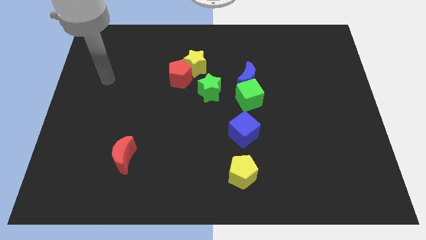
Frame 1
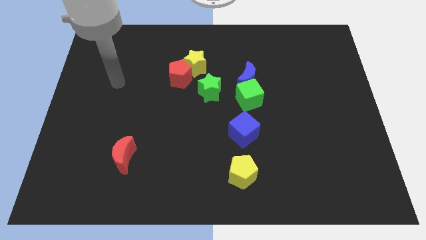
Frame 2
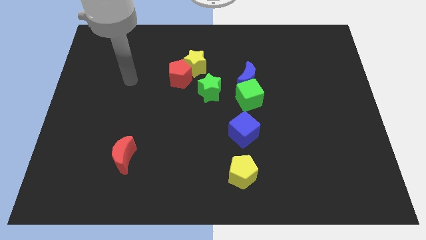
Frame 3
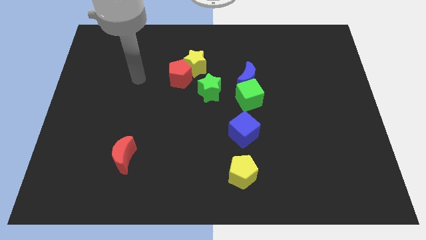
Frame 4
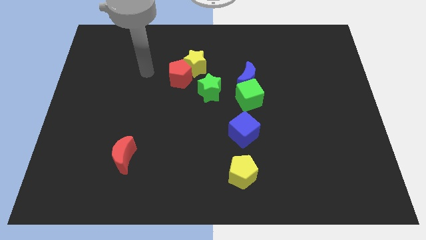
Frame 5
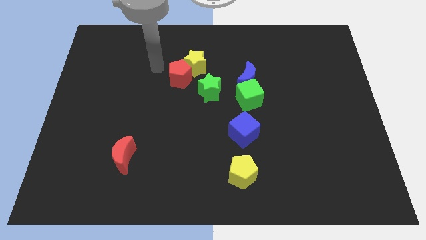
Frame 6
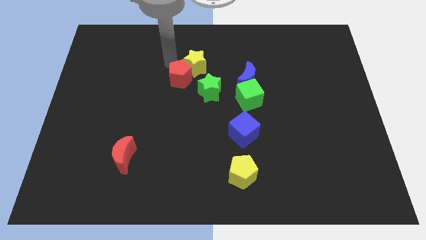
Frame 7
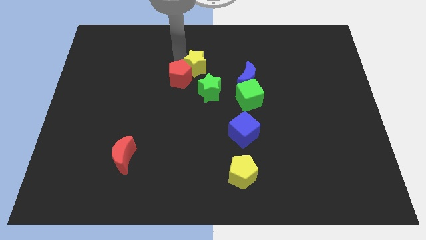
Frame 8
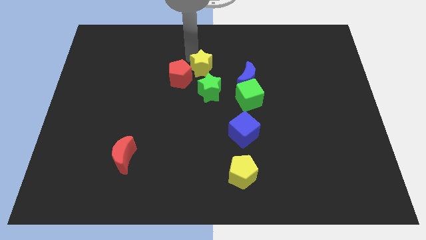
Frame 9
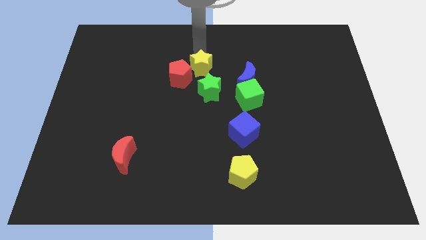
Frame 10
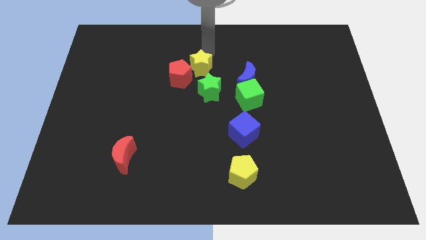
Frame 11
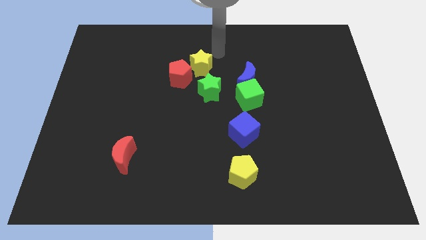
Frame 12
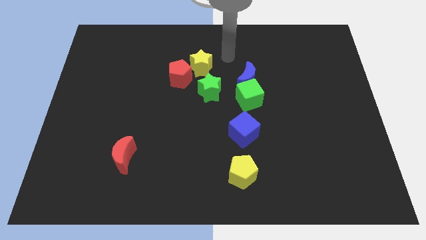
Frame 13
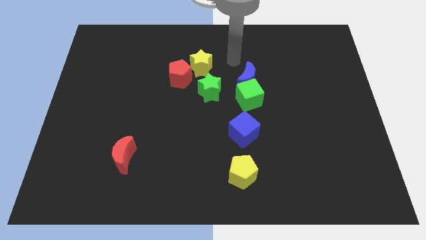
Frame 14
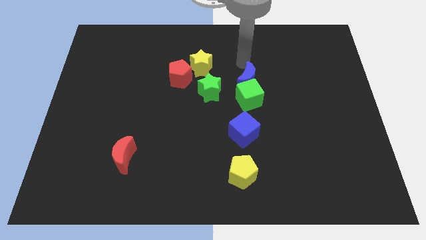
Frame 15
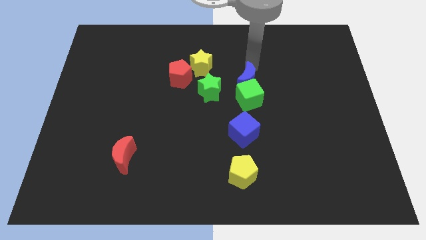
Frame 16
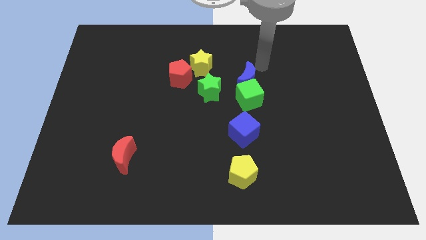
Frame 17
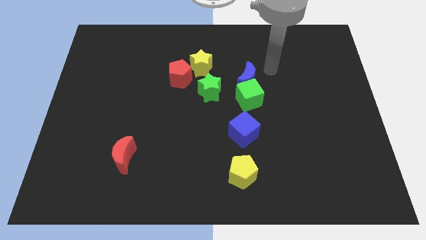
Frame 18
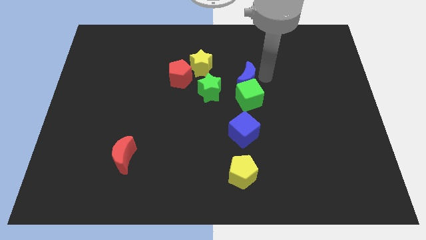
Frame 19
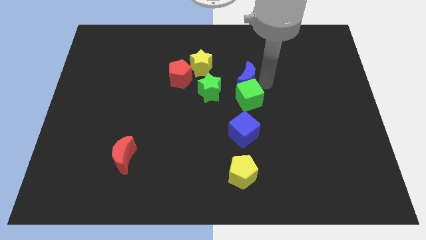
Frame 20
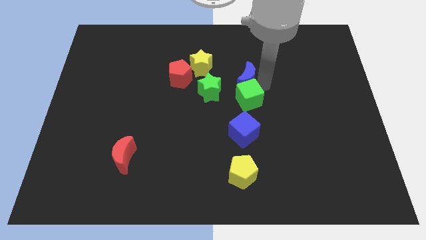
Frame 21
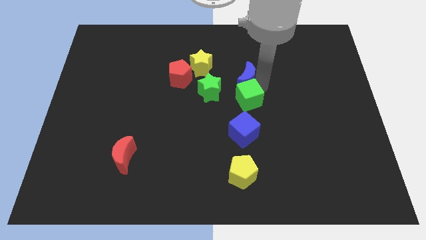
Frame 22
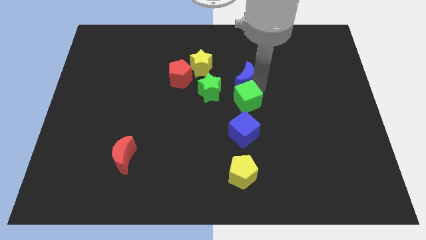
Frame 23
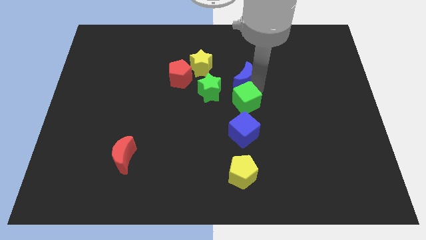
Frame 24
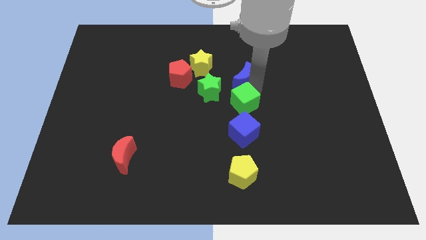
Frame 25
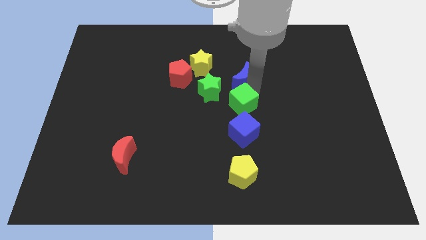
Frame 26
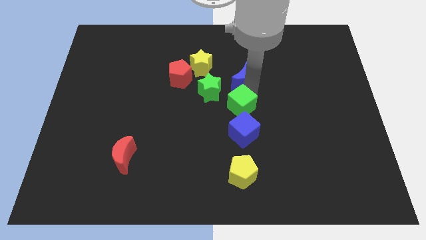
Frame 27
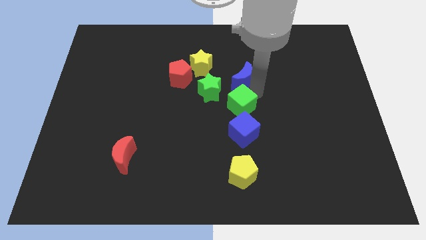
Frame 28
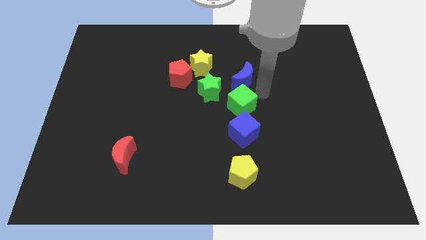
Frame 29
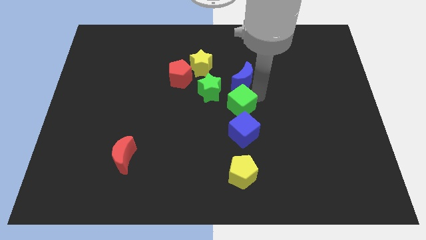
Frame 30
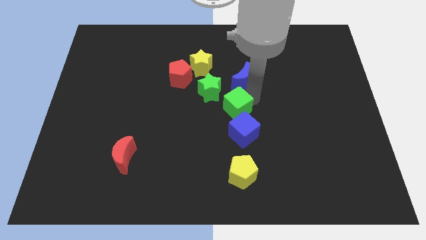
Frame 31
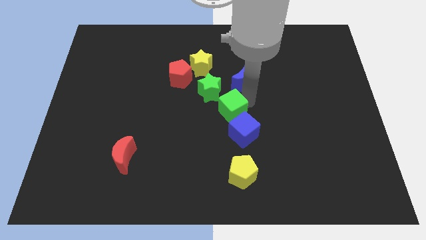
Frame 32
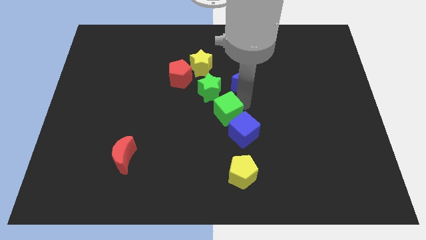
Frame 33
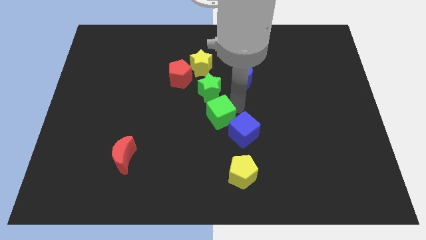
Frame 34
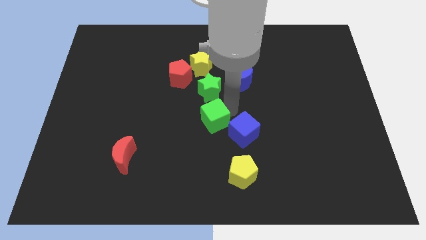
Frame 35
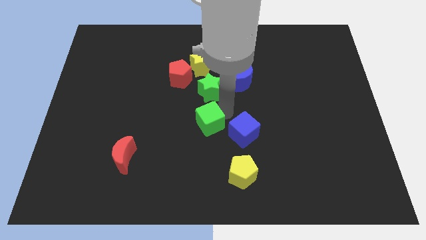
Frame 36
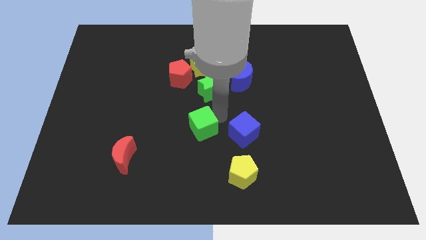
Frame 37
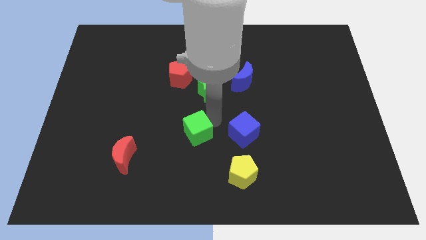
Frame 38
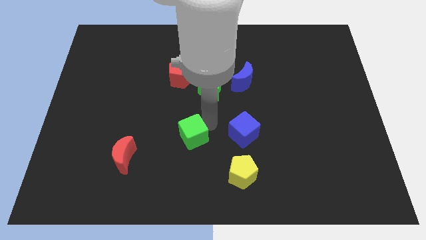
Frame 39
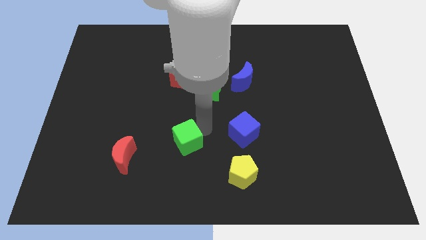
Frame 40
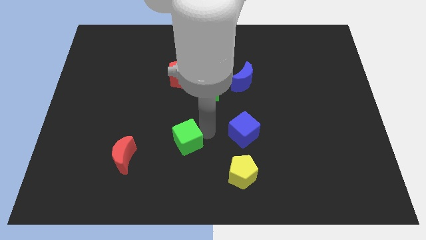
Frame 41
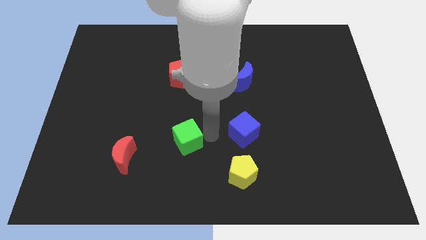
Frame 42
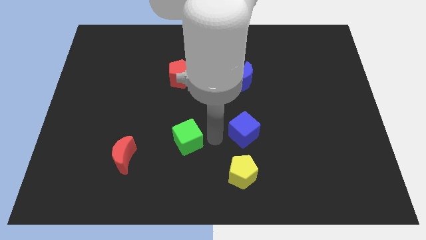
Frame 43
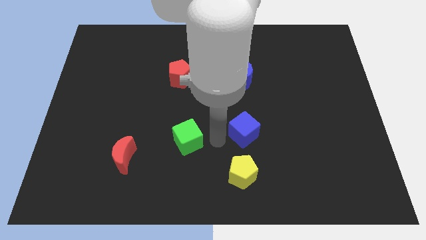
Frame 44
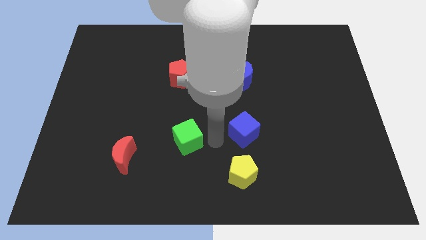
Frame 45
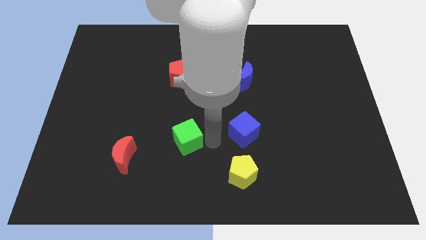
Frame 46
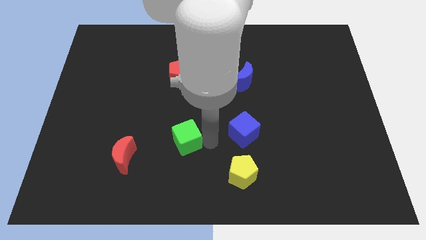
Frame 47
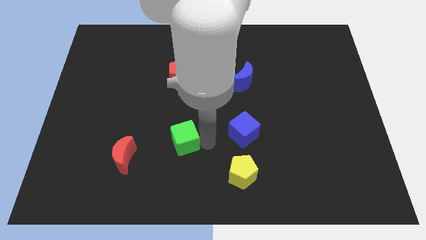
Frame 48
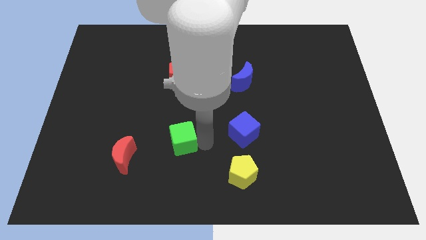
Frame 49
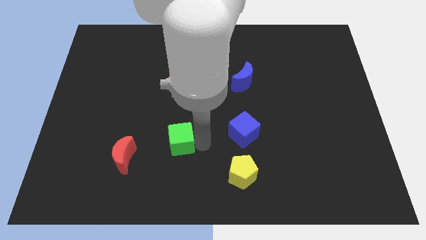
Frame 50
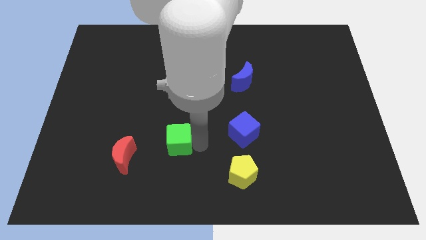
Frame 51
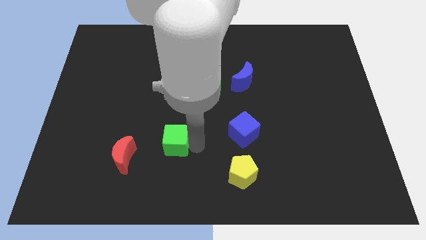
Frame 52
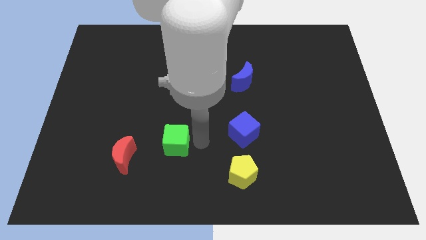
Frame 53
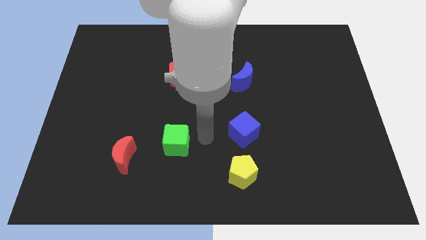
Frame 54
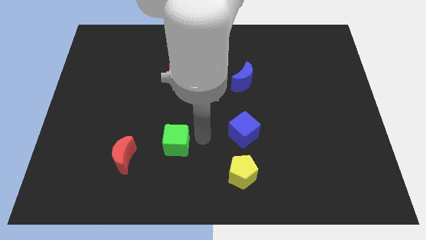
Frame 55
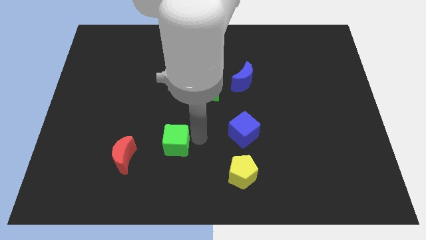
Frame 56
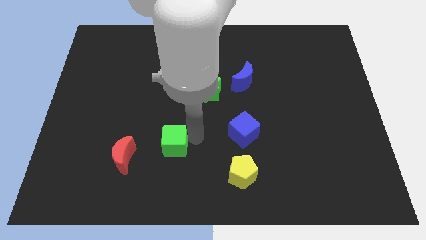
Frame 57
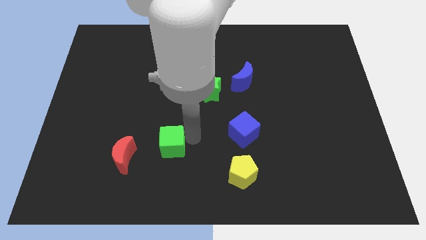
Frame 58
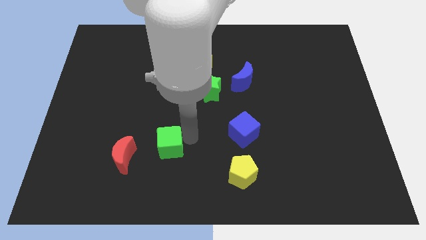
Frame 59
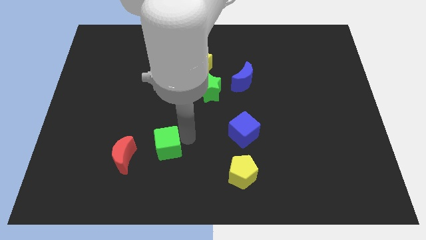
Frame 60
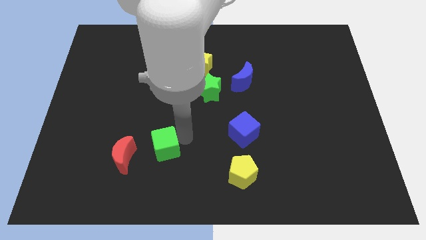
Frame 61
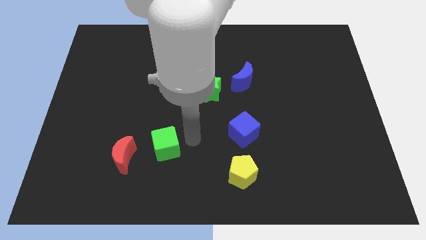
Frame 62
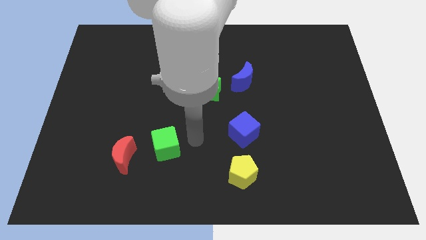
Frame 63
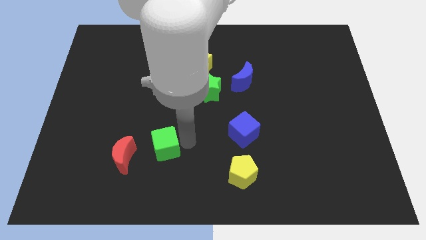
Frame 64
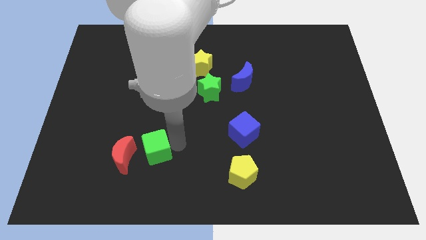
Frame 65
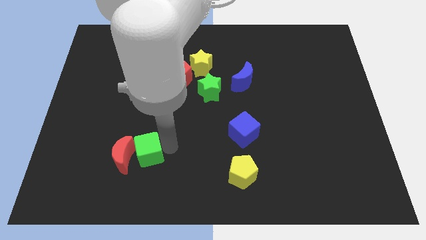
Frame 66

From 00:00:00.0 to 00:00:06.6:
slide the green cube towards the red moon
